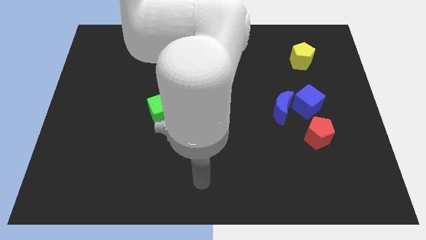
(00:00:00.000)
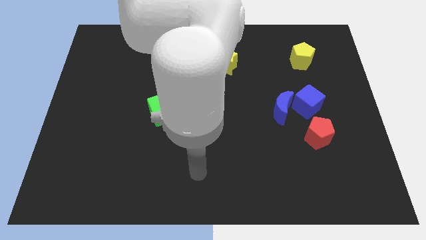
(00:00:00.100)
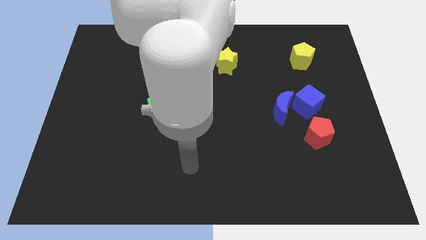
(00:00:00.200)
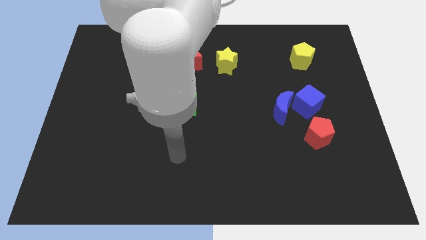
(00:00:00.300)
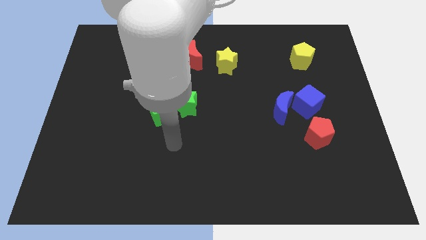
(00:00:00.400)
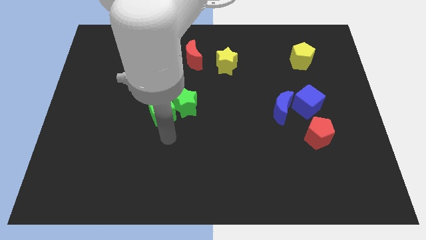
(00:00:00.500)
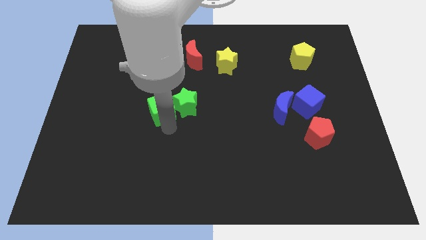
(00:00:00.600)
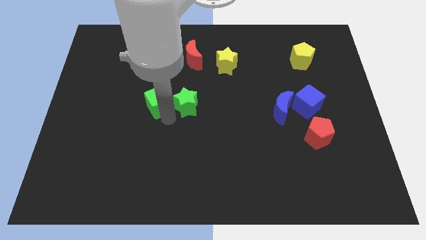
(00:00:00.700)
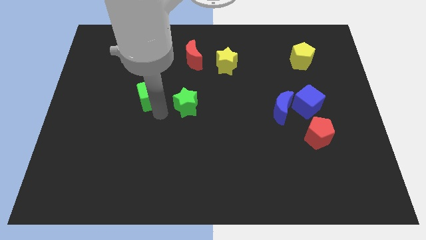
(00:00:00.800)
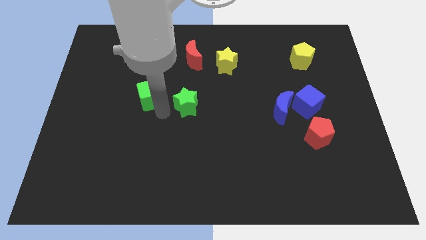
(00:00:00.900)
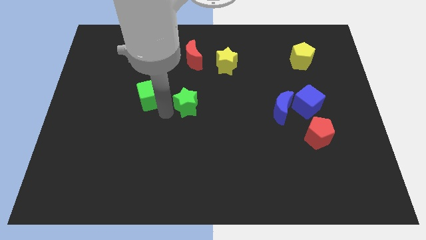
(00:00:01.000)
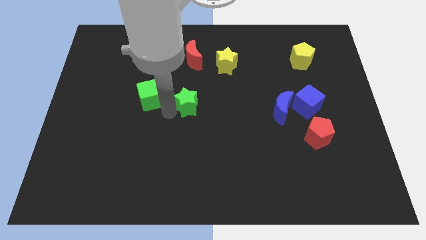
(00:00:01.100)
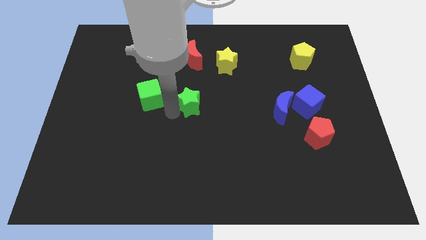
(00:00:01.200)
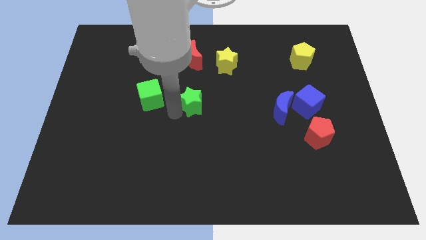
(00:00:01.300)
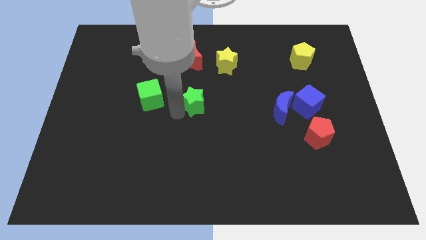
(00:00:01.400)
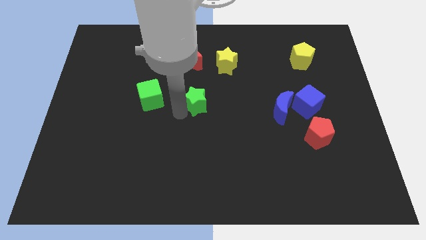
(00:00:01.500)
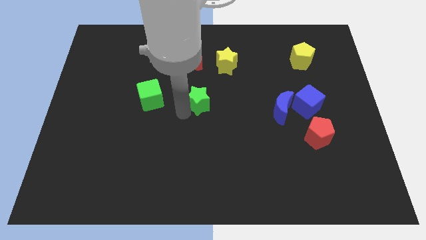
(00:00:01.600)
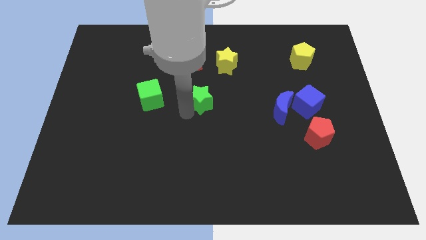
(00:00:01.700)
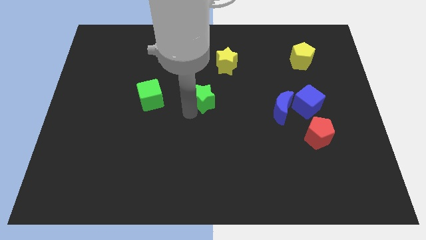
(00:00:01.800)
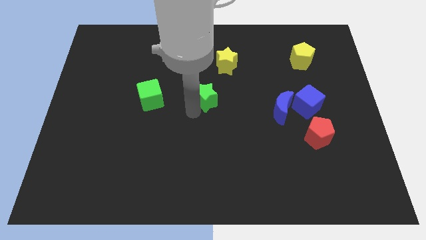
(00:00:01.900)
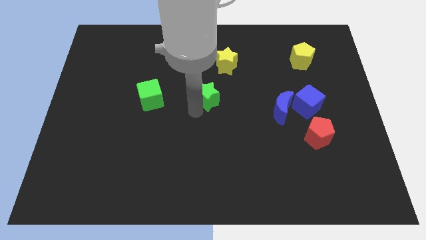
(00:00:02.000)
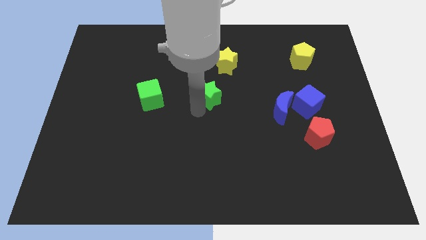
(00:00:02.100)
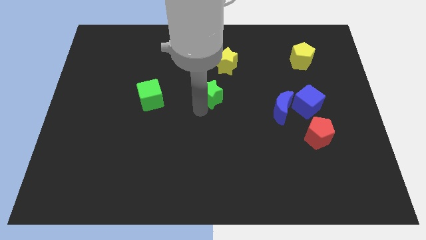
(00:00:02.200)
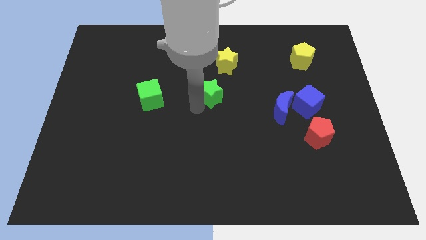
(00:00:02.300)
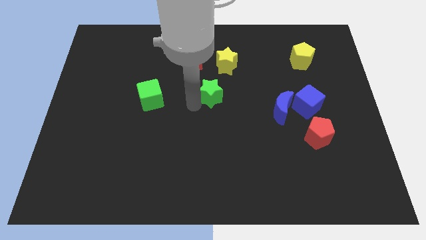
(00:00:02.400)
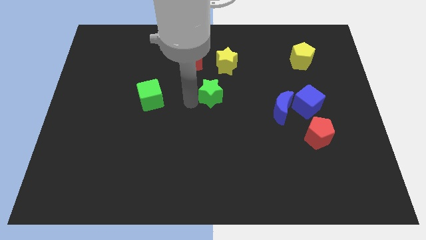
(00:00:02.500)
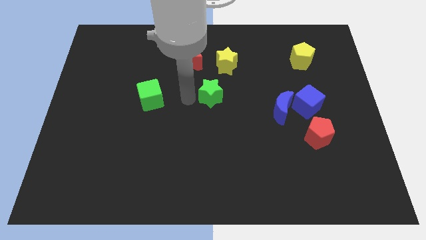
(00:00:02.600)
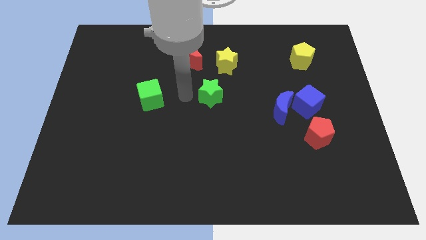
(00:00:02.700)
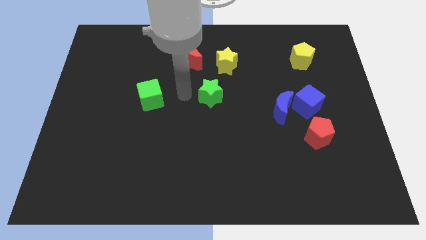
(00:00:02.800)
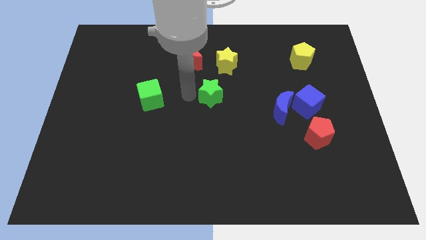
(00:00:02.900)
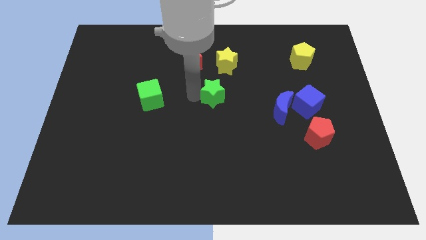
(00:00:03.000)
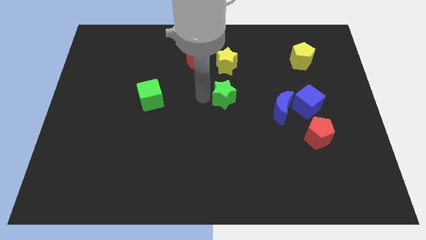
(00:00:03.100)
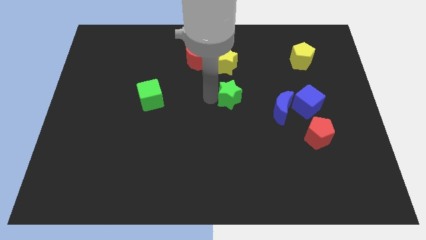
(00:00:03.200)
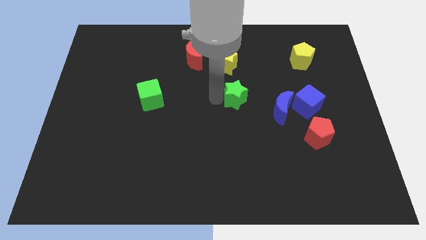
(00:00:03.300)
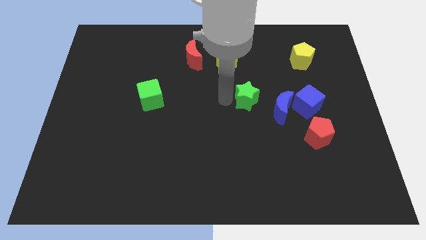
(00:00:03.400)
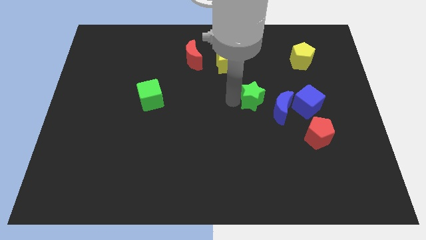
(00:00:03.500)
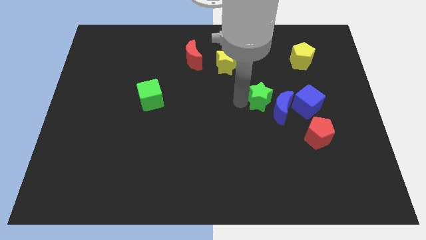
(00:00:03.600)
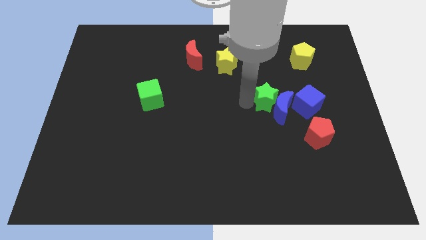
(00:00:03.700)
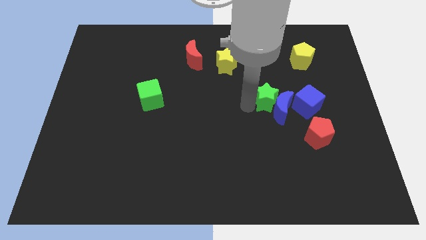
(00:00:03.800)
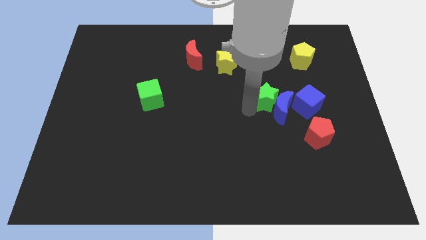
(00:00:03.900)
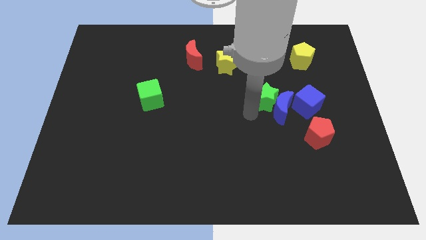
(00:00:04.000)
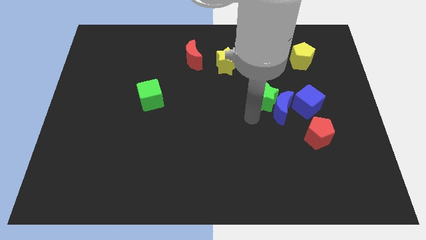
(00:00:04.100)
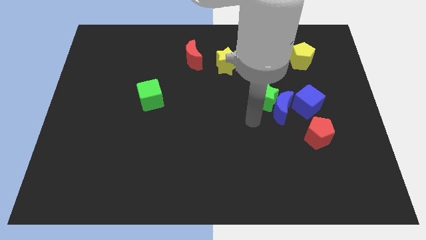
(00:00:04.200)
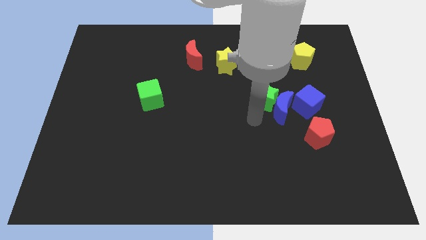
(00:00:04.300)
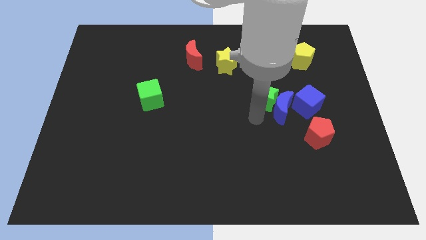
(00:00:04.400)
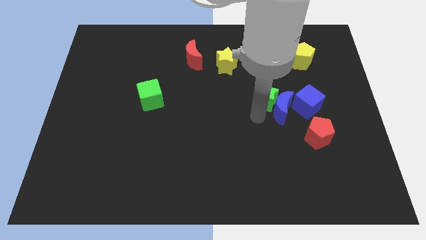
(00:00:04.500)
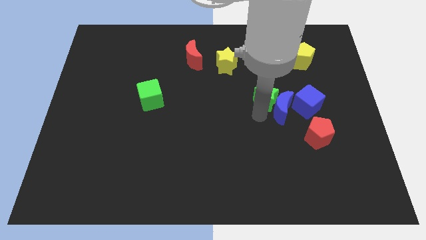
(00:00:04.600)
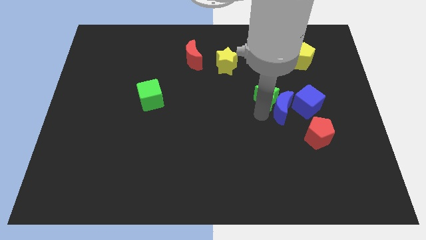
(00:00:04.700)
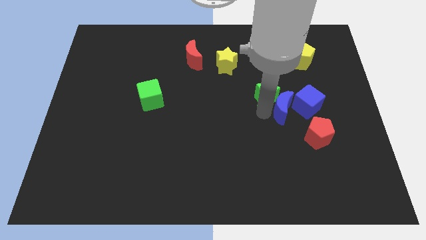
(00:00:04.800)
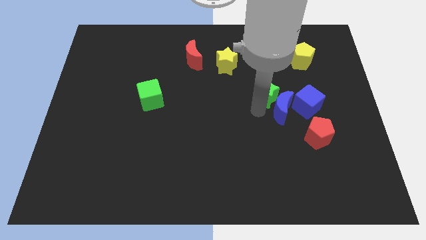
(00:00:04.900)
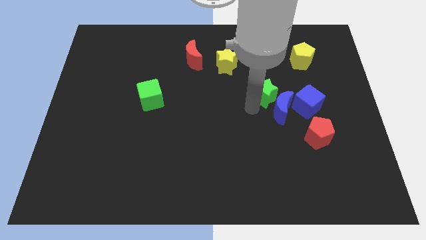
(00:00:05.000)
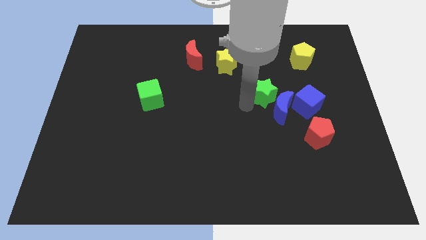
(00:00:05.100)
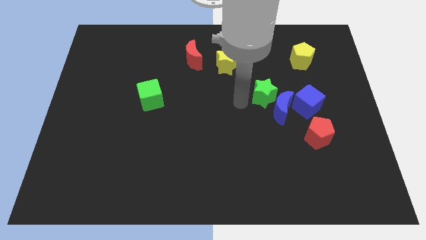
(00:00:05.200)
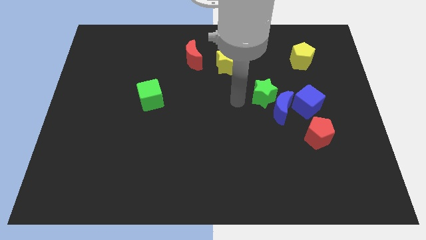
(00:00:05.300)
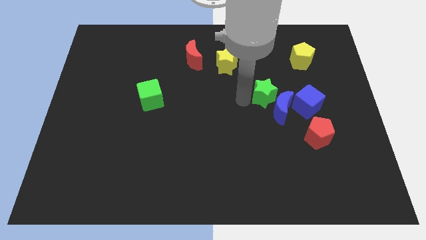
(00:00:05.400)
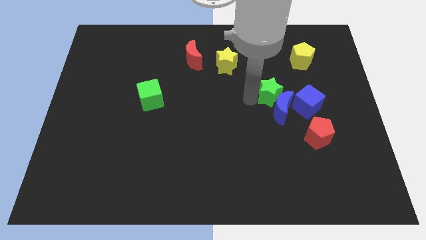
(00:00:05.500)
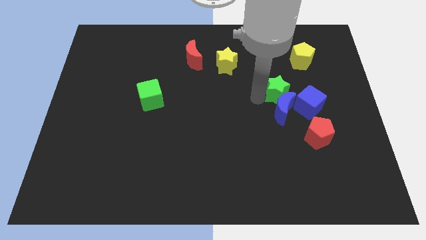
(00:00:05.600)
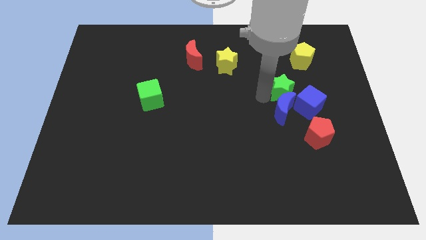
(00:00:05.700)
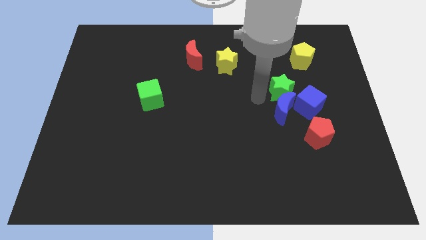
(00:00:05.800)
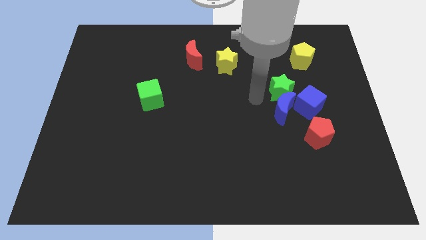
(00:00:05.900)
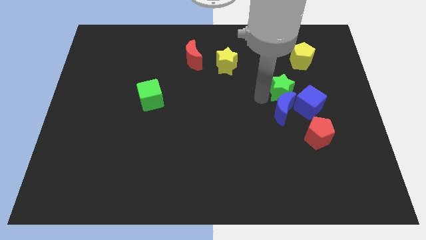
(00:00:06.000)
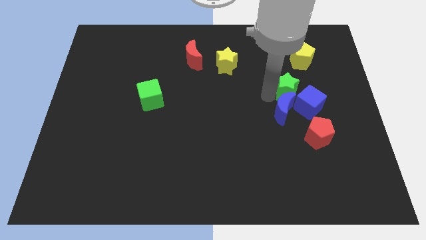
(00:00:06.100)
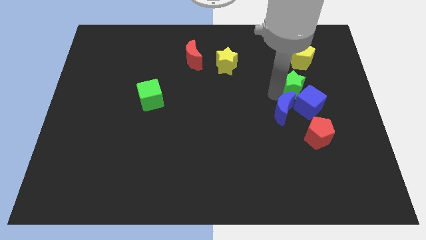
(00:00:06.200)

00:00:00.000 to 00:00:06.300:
push the green star above the red pentagon
